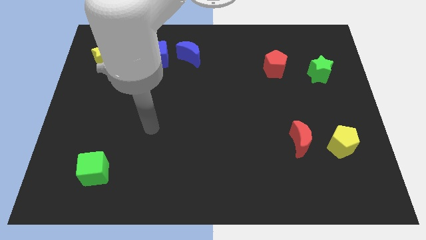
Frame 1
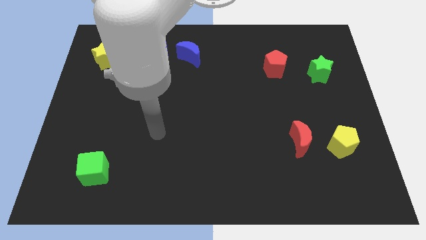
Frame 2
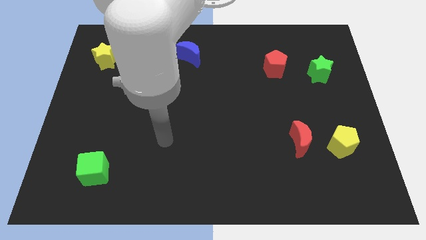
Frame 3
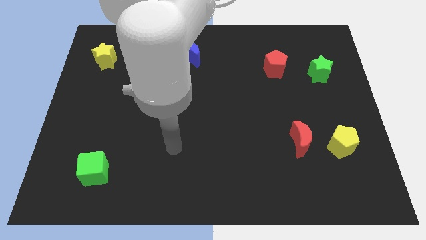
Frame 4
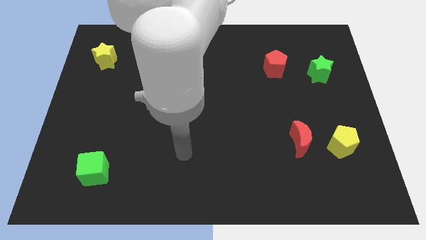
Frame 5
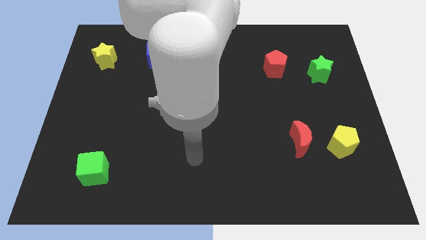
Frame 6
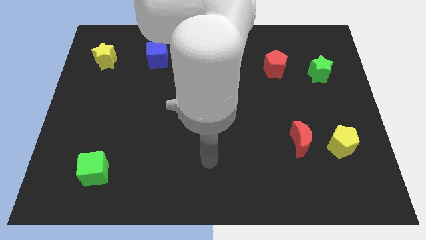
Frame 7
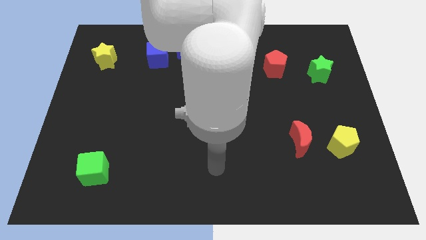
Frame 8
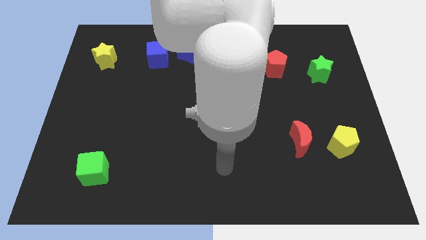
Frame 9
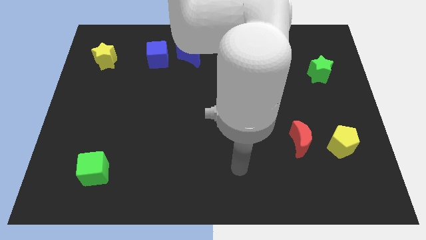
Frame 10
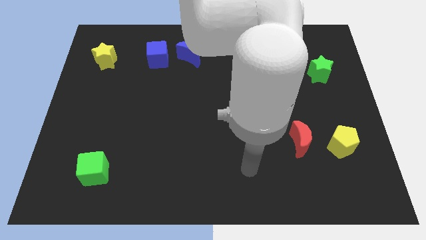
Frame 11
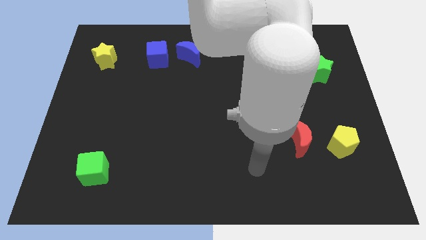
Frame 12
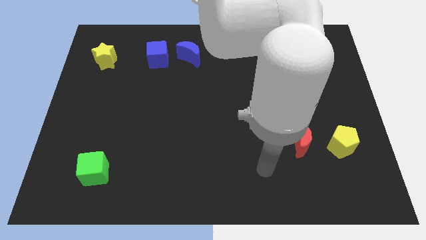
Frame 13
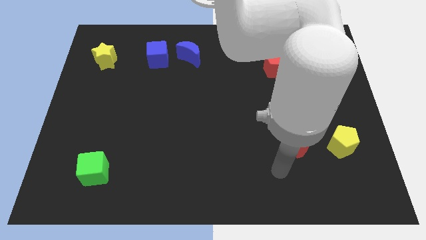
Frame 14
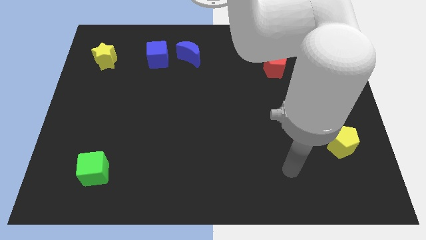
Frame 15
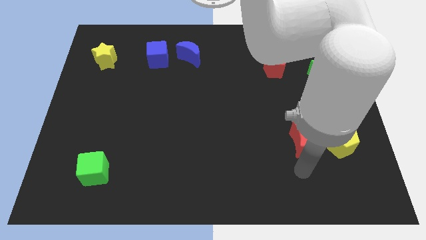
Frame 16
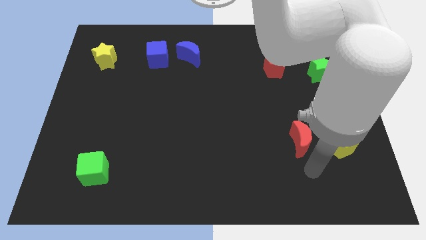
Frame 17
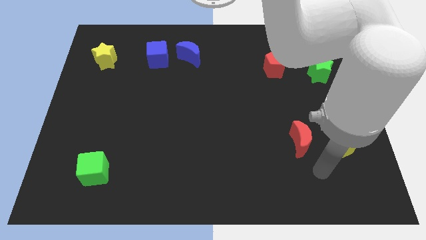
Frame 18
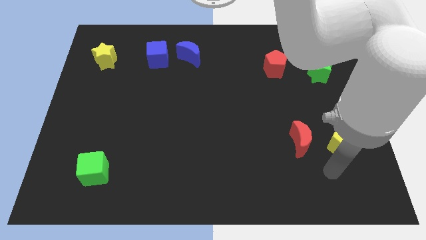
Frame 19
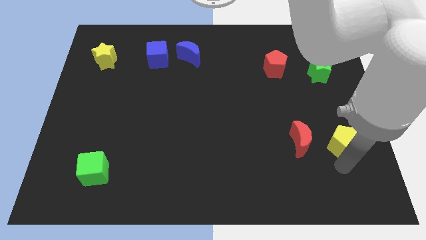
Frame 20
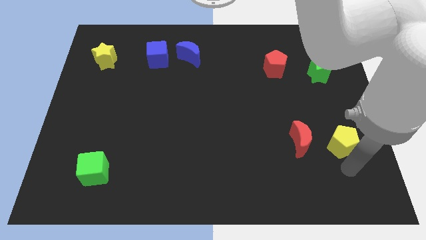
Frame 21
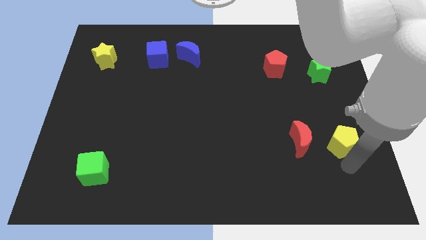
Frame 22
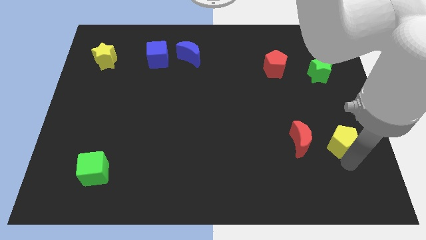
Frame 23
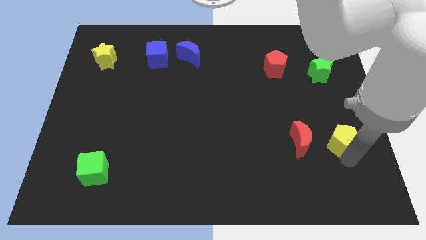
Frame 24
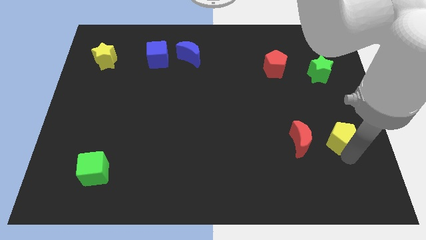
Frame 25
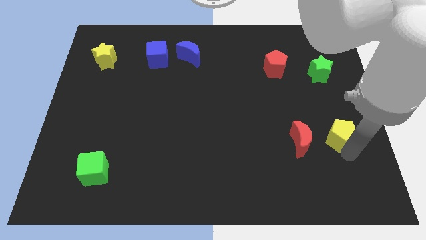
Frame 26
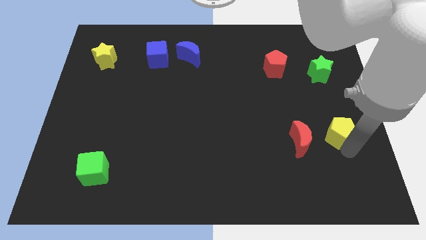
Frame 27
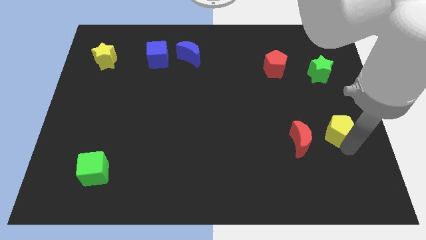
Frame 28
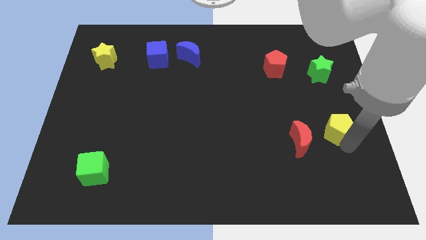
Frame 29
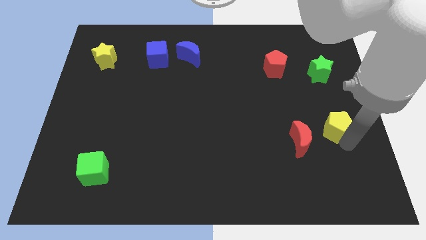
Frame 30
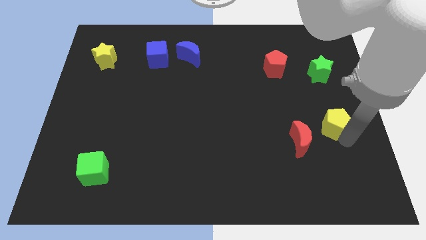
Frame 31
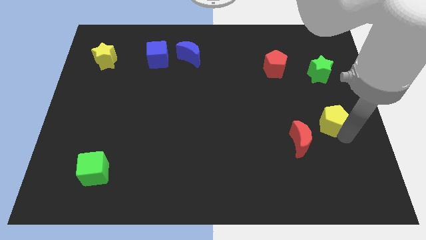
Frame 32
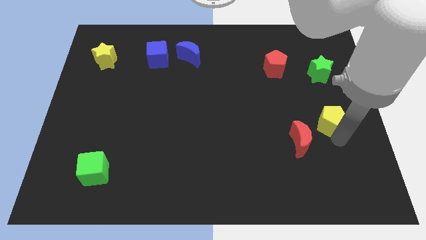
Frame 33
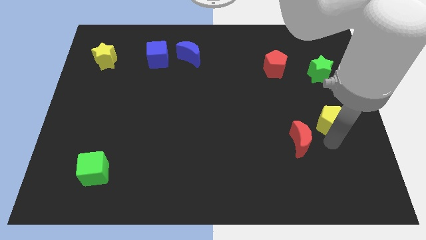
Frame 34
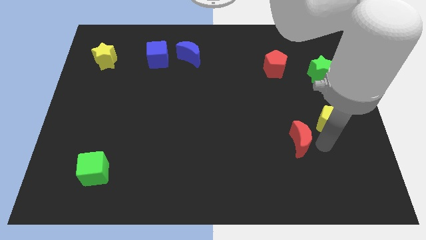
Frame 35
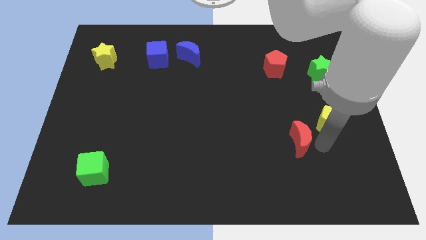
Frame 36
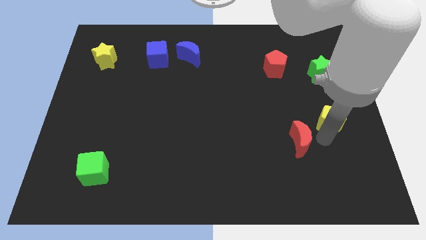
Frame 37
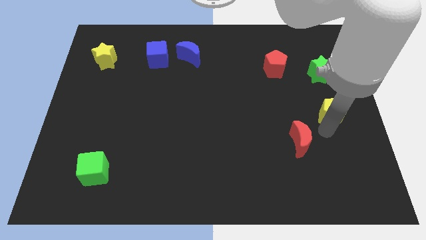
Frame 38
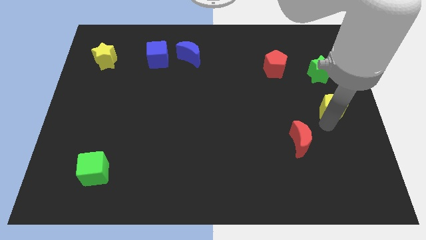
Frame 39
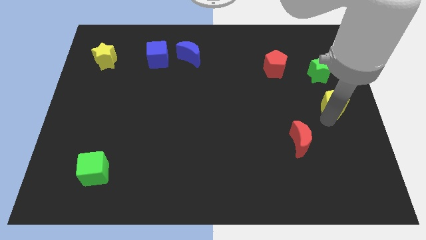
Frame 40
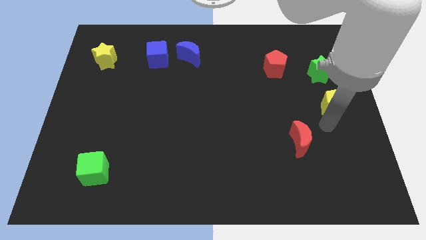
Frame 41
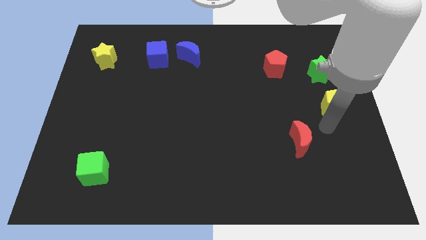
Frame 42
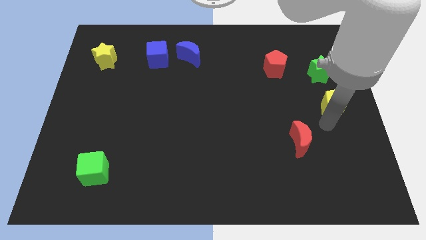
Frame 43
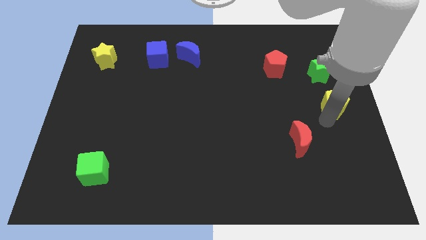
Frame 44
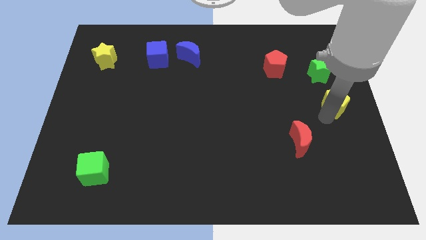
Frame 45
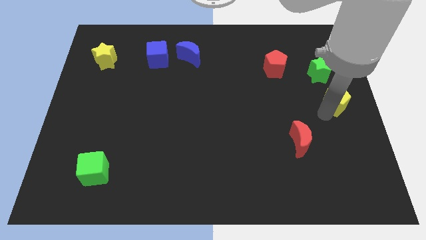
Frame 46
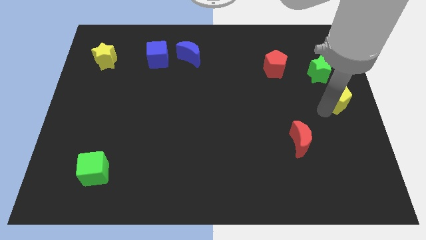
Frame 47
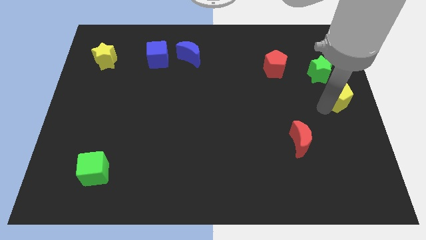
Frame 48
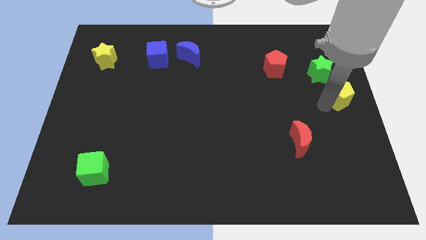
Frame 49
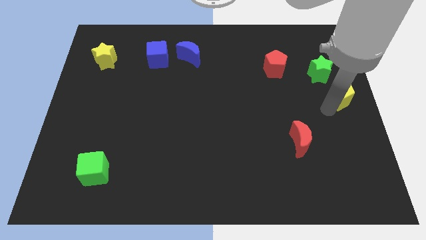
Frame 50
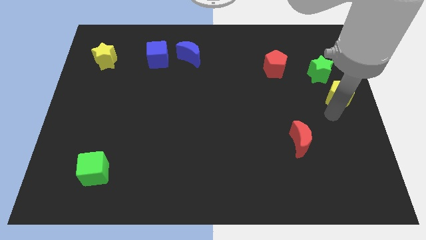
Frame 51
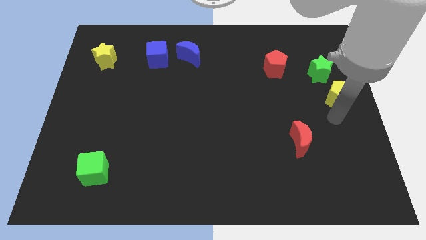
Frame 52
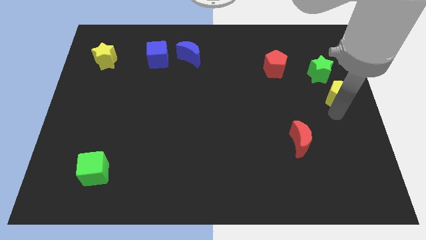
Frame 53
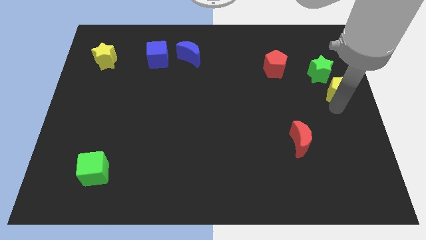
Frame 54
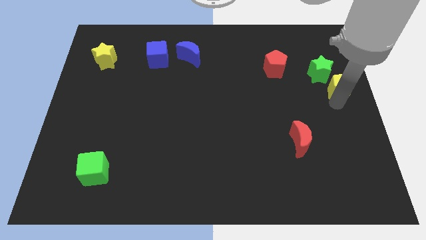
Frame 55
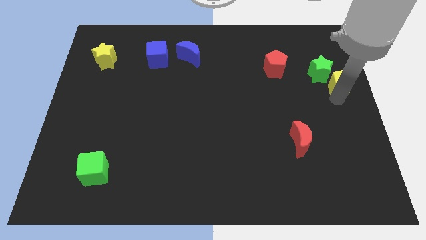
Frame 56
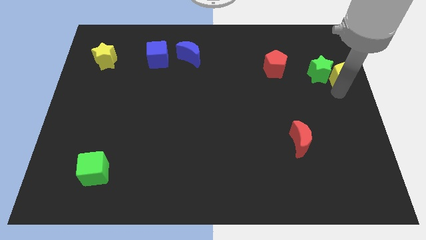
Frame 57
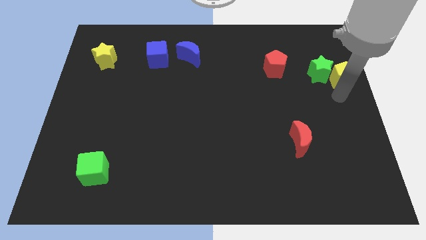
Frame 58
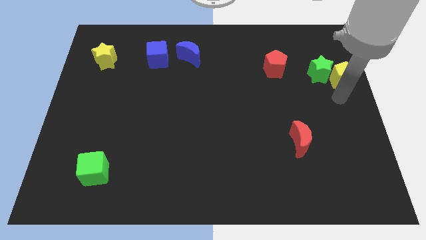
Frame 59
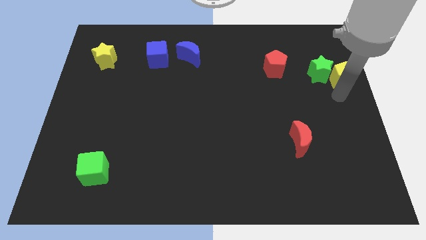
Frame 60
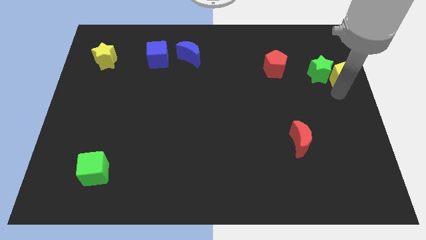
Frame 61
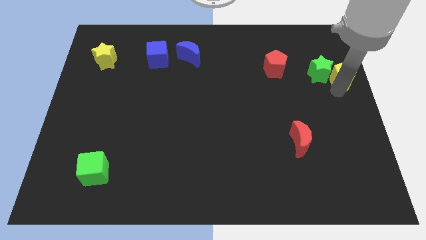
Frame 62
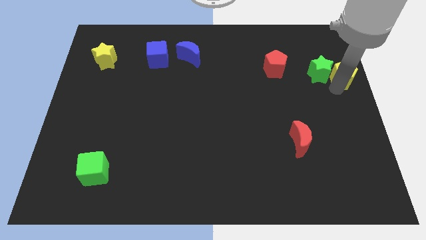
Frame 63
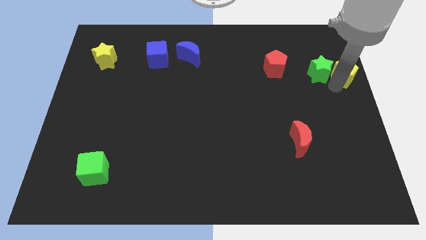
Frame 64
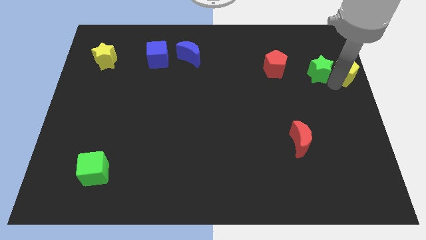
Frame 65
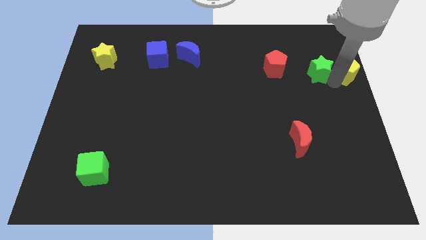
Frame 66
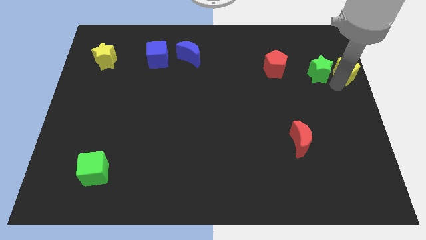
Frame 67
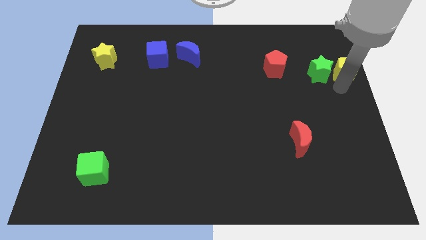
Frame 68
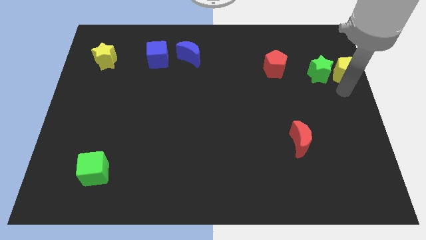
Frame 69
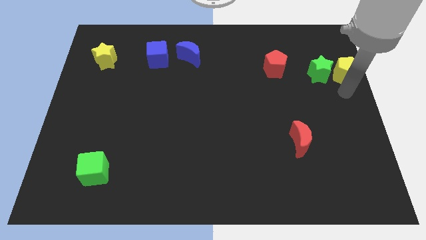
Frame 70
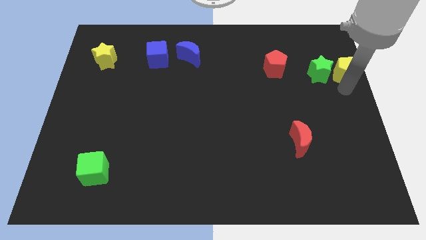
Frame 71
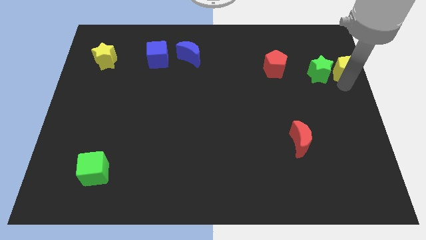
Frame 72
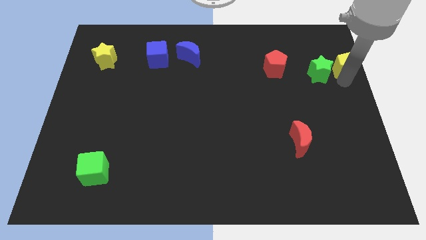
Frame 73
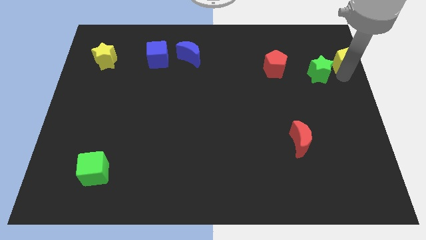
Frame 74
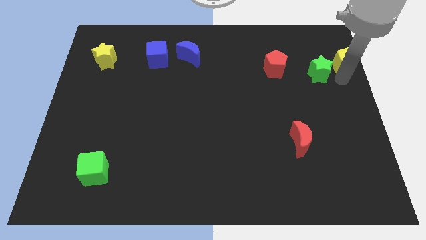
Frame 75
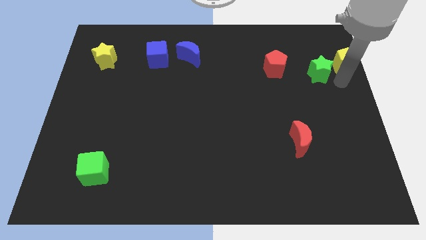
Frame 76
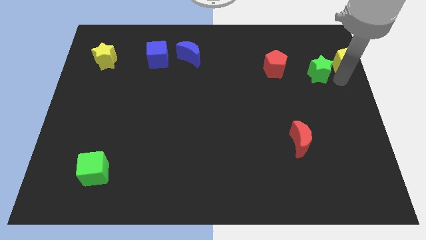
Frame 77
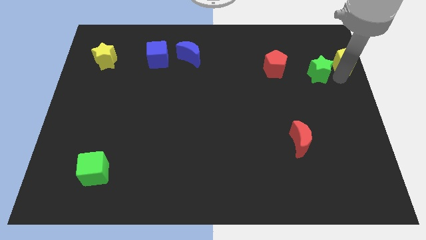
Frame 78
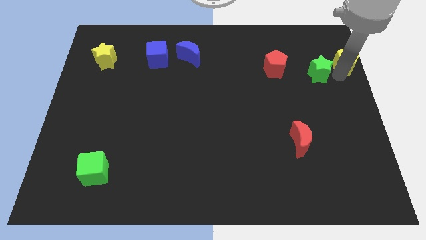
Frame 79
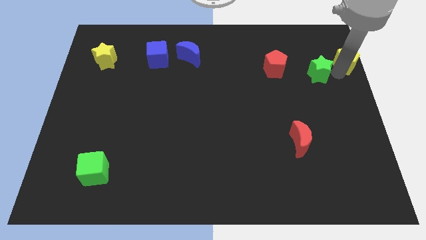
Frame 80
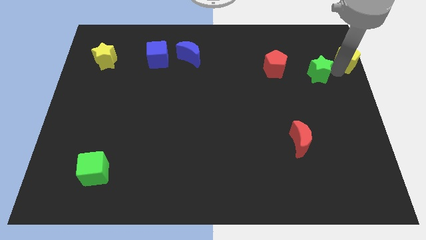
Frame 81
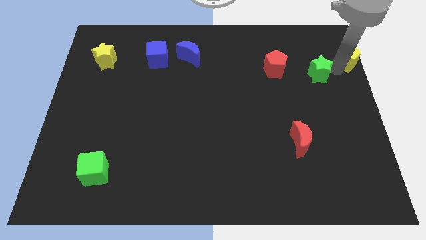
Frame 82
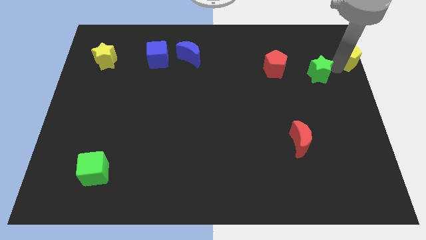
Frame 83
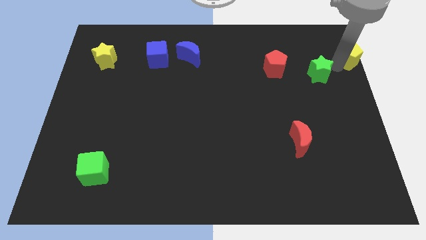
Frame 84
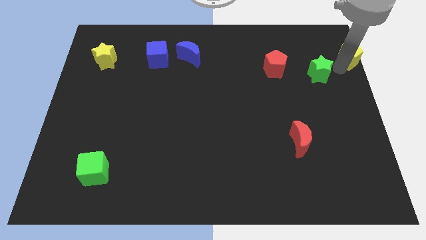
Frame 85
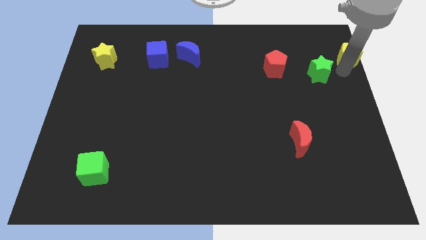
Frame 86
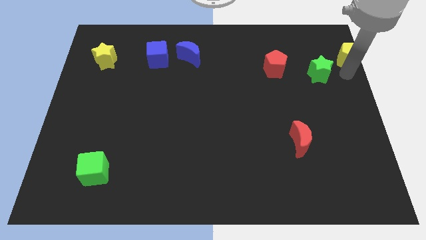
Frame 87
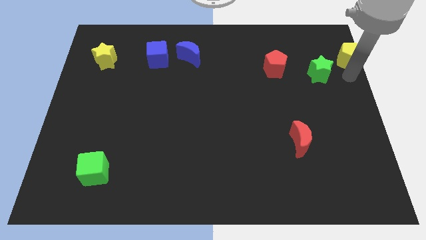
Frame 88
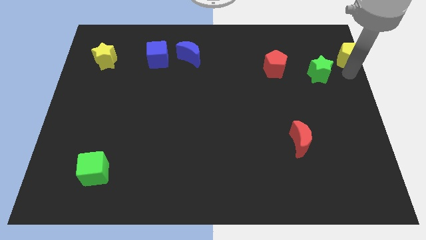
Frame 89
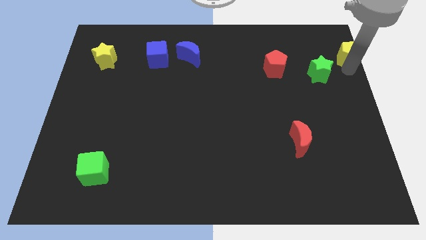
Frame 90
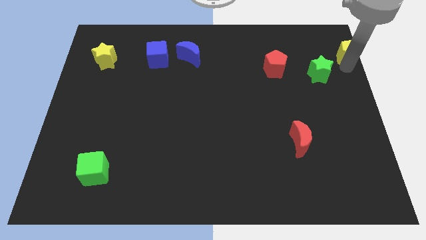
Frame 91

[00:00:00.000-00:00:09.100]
slide the yellow pentagon to the top right of the board
